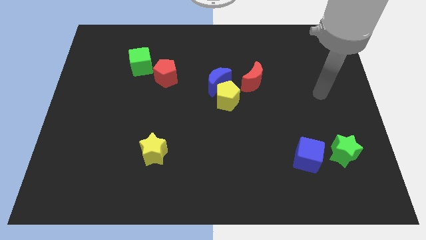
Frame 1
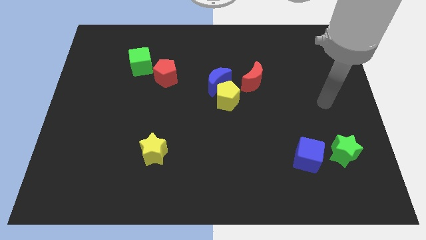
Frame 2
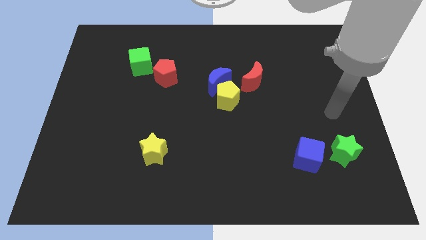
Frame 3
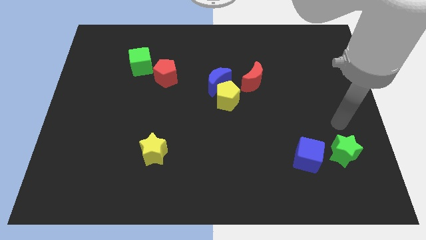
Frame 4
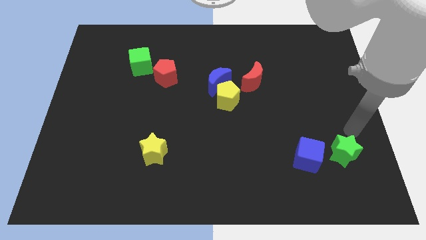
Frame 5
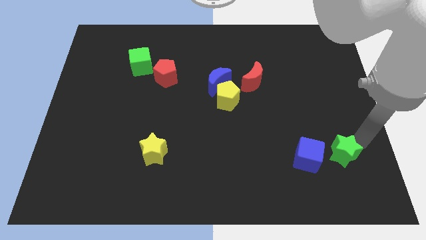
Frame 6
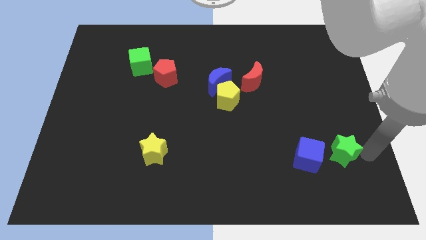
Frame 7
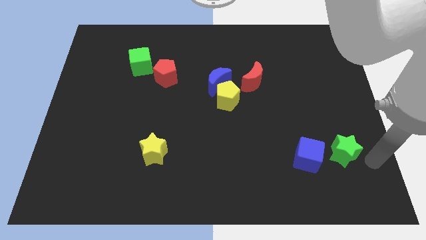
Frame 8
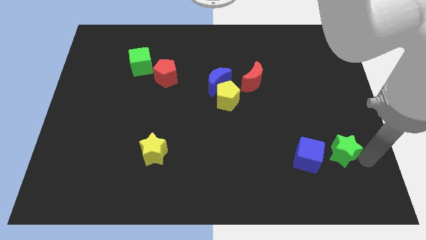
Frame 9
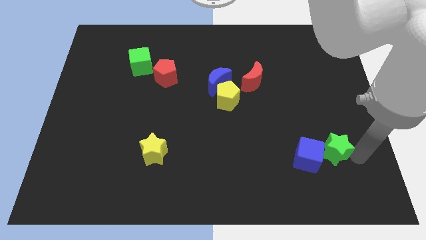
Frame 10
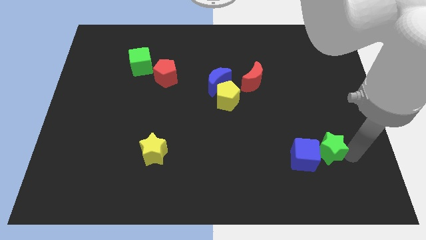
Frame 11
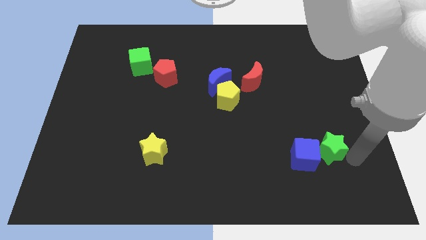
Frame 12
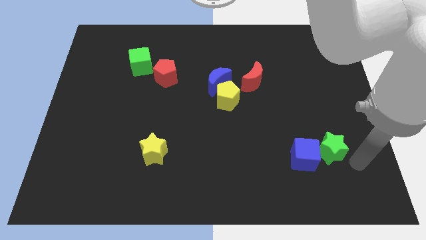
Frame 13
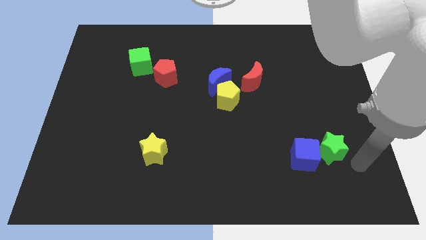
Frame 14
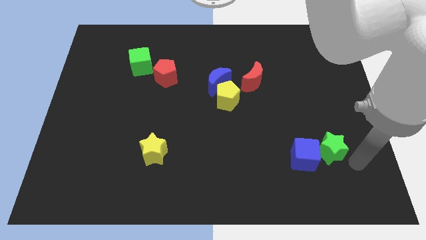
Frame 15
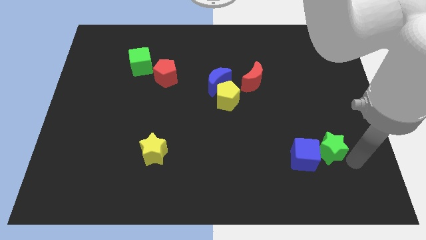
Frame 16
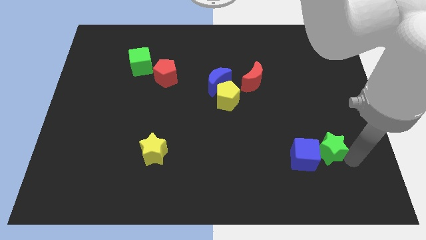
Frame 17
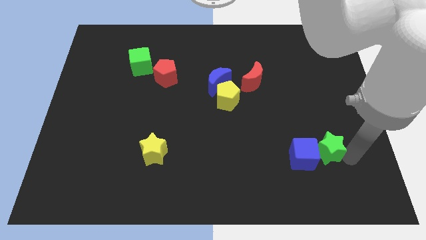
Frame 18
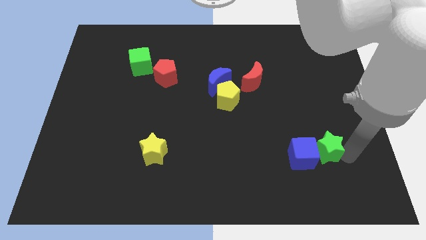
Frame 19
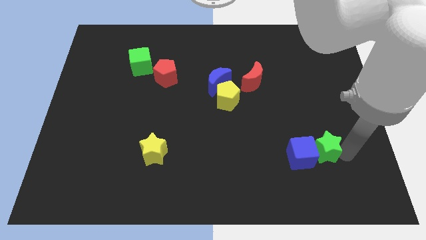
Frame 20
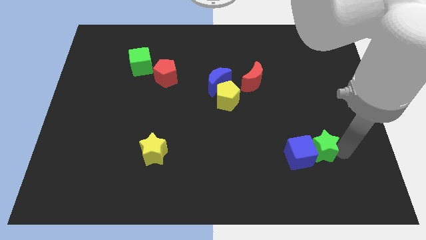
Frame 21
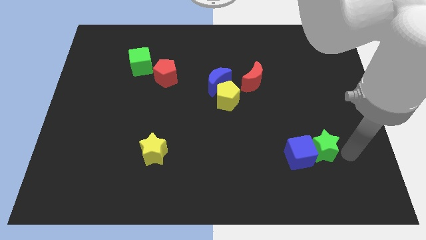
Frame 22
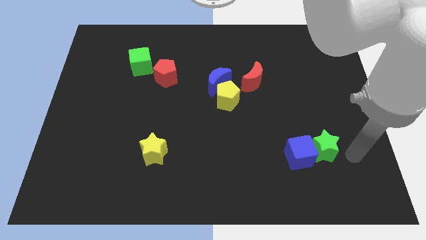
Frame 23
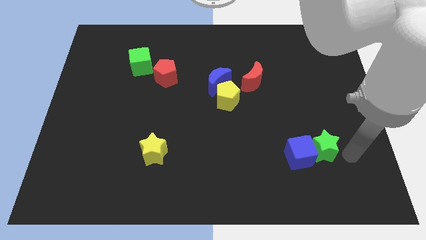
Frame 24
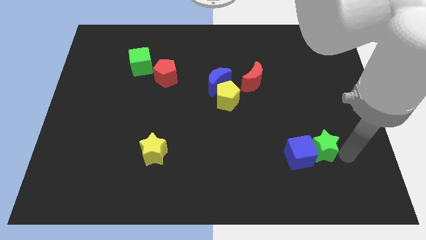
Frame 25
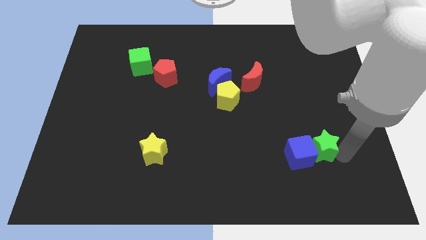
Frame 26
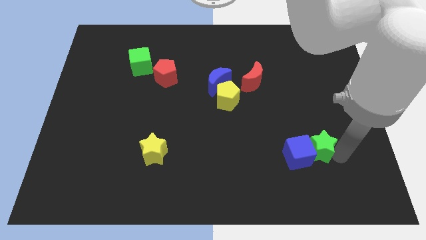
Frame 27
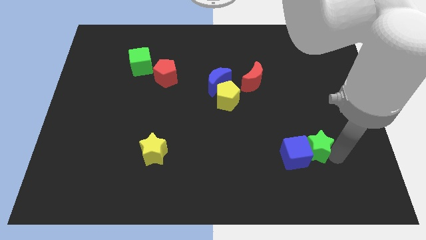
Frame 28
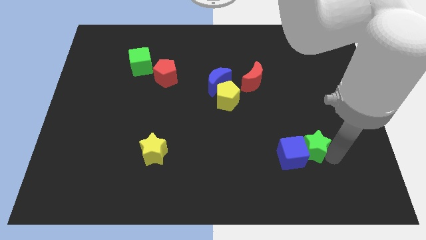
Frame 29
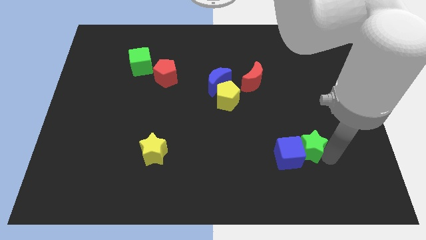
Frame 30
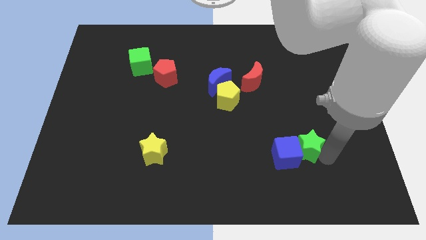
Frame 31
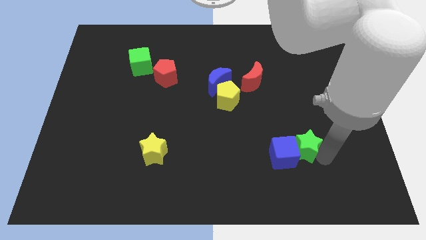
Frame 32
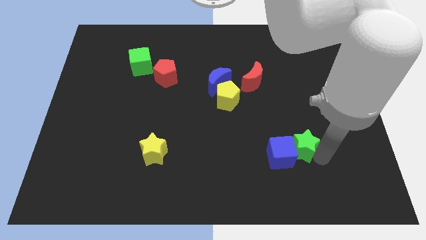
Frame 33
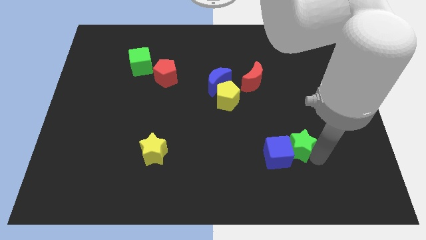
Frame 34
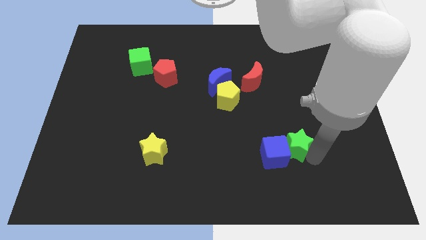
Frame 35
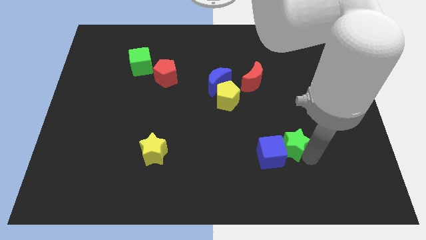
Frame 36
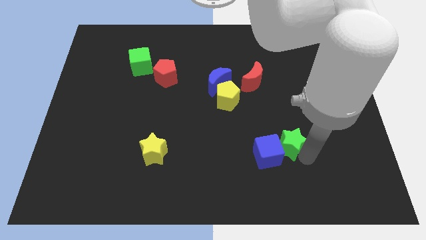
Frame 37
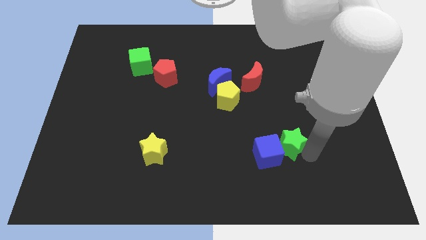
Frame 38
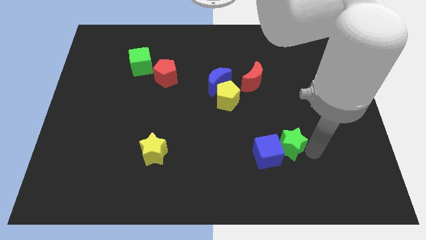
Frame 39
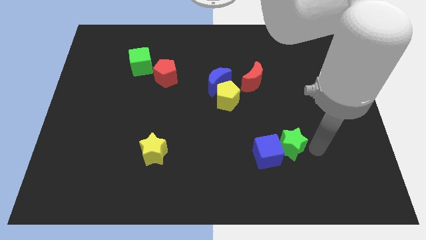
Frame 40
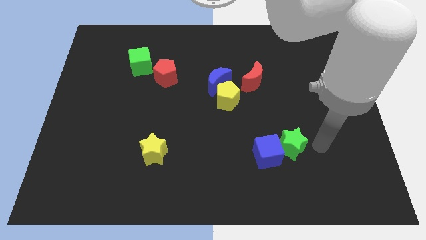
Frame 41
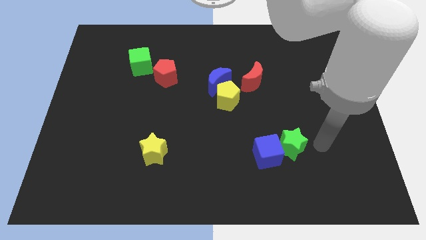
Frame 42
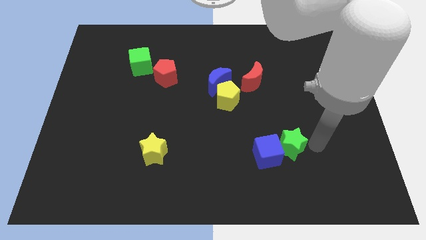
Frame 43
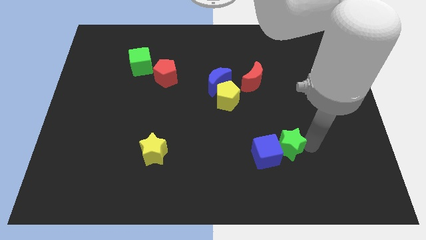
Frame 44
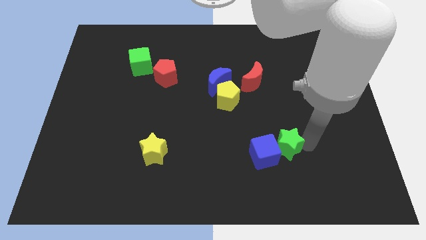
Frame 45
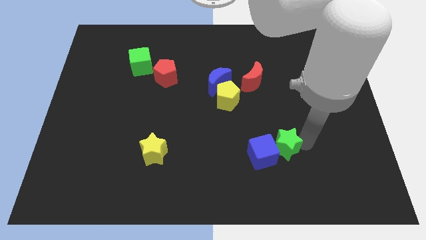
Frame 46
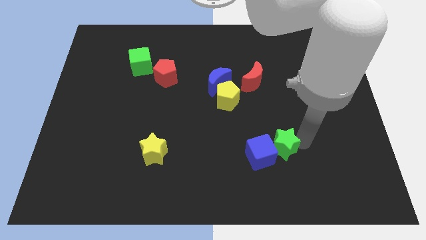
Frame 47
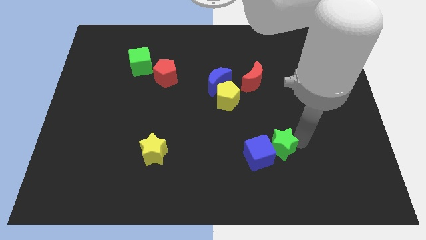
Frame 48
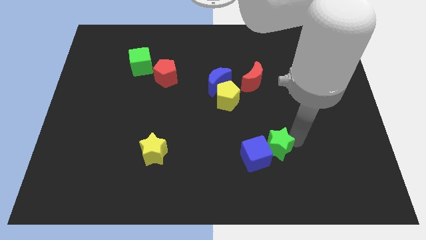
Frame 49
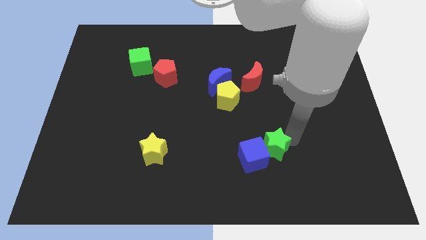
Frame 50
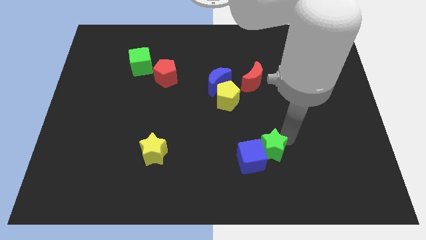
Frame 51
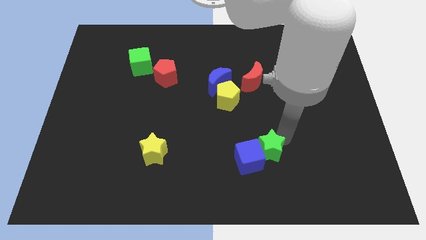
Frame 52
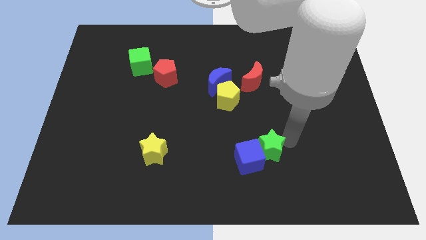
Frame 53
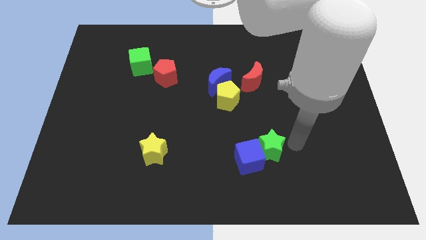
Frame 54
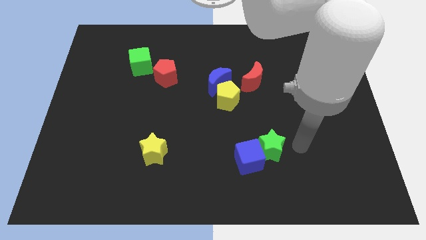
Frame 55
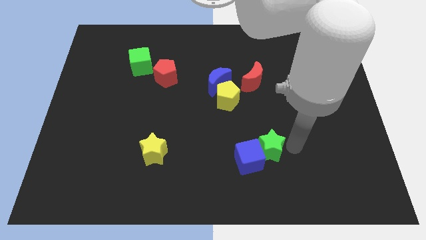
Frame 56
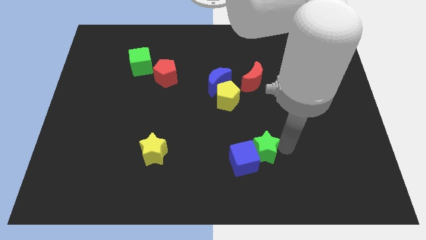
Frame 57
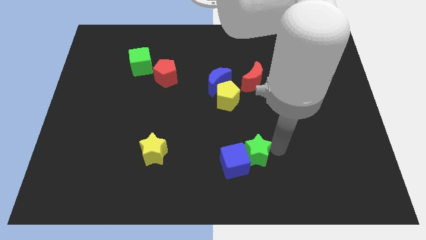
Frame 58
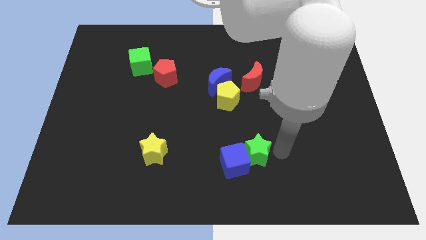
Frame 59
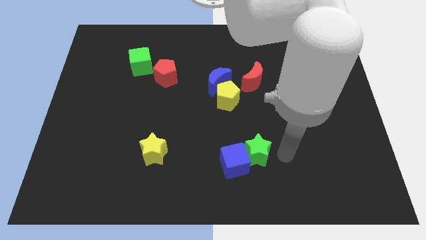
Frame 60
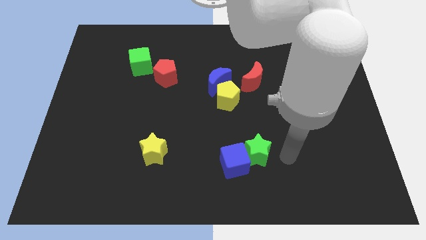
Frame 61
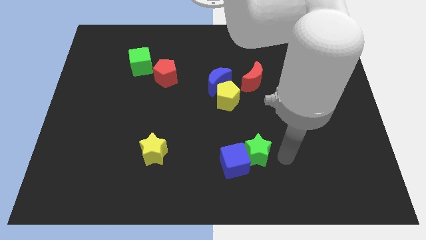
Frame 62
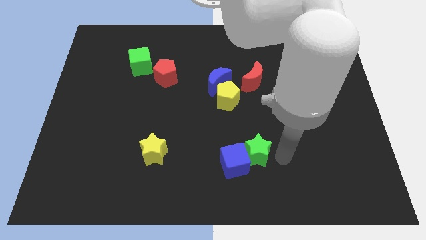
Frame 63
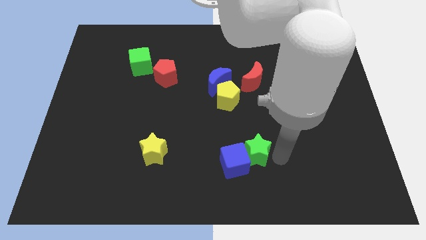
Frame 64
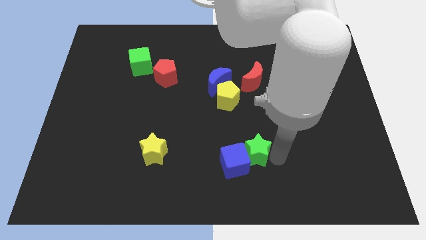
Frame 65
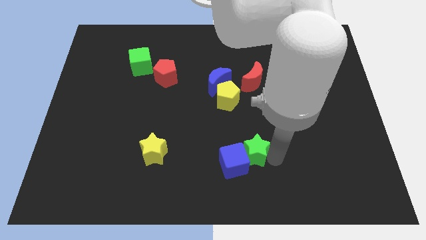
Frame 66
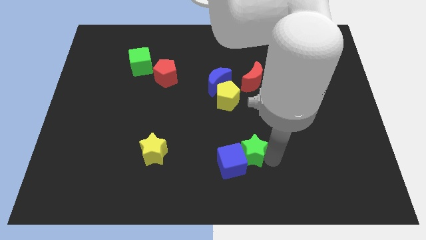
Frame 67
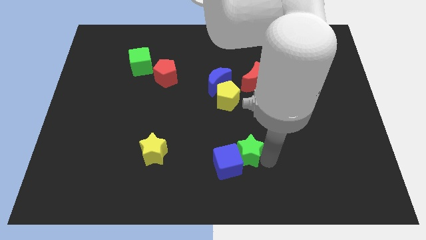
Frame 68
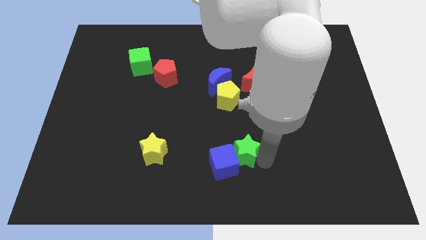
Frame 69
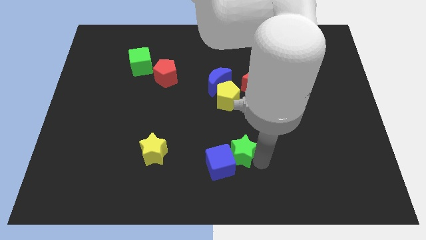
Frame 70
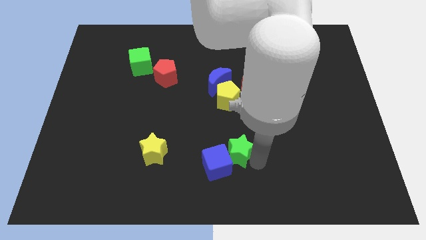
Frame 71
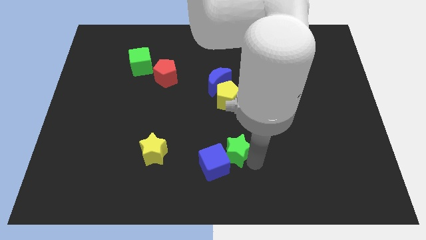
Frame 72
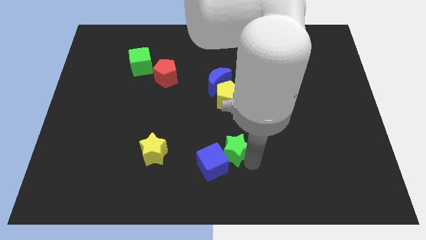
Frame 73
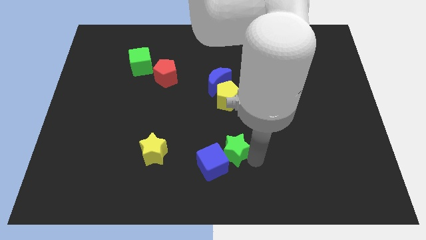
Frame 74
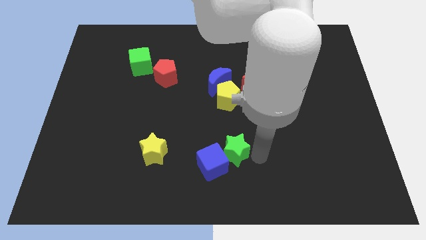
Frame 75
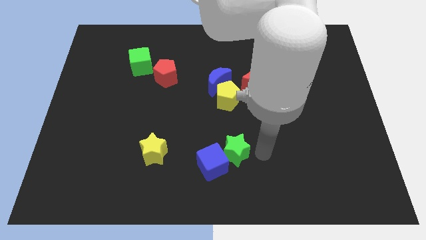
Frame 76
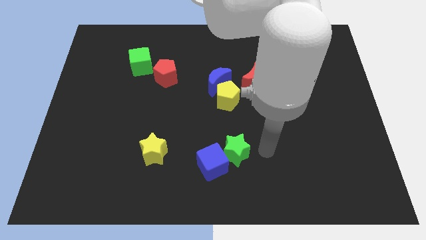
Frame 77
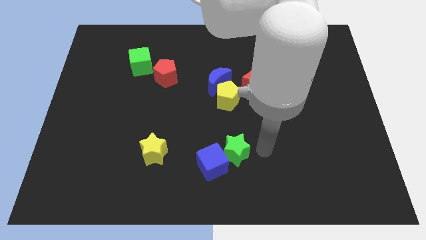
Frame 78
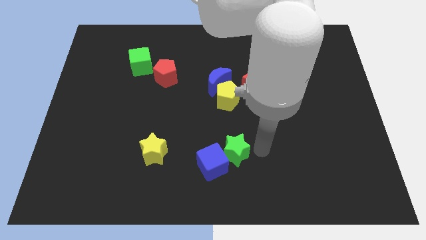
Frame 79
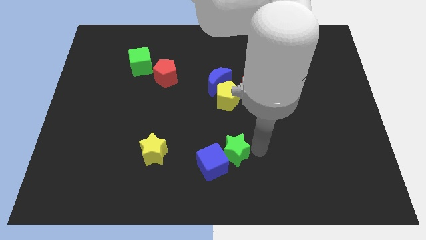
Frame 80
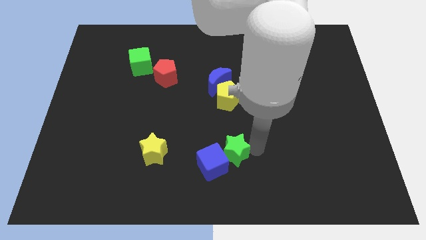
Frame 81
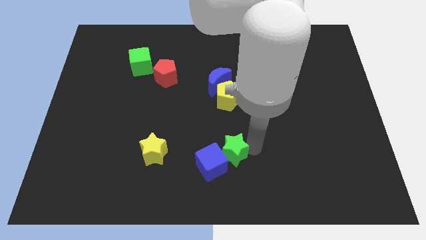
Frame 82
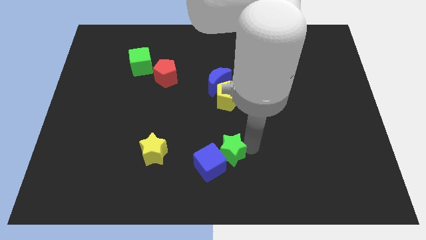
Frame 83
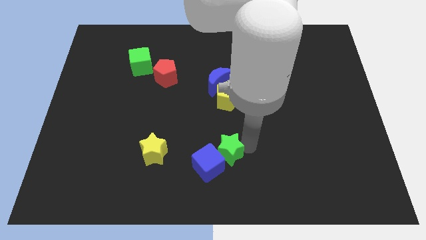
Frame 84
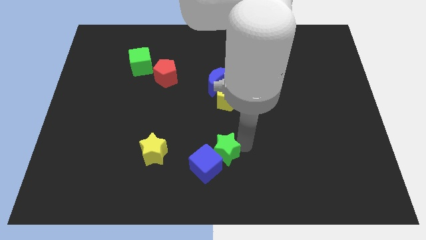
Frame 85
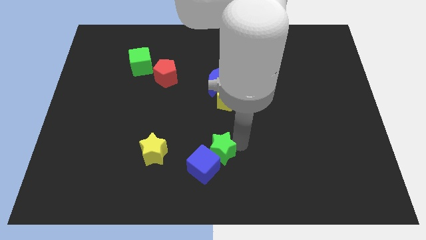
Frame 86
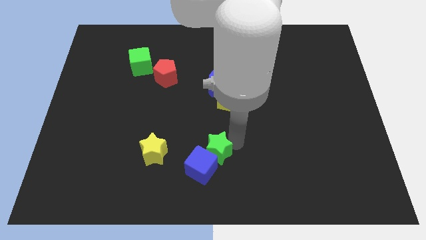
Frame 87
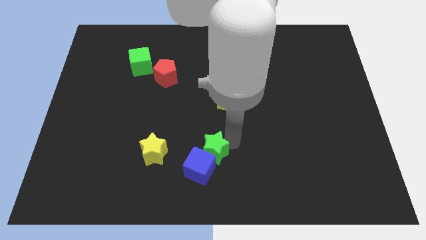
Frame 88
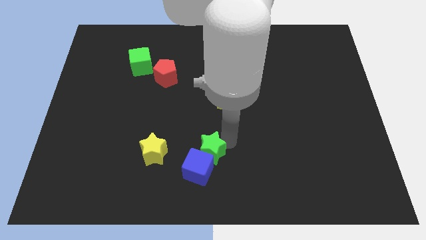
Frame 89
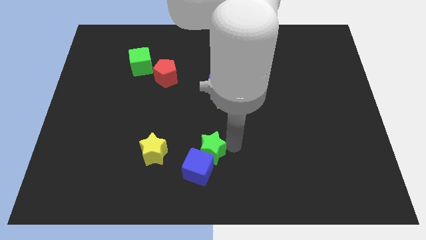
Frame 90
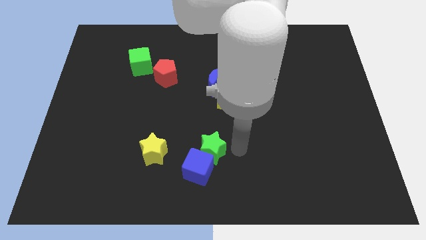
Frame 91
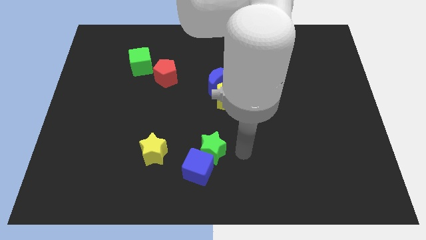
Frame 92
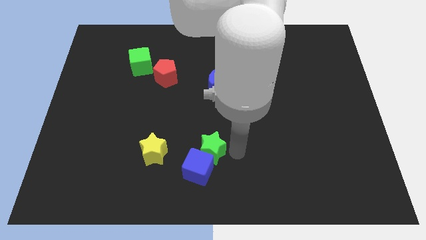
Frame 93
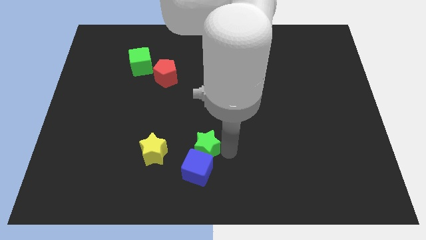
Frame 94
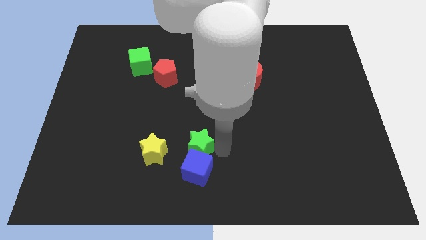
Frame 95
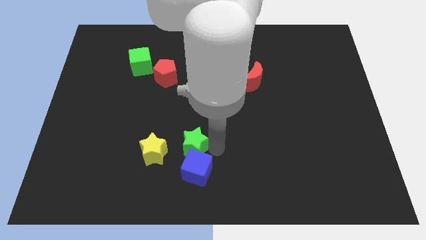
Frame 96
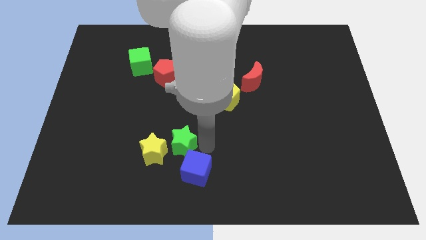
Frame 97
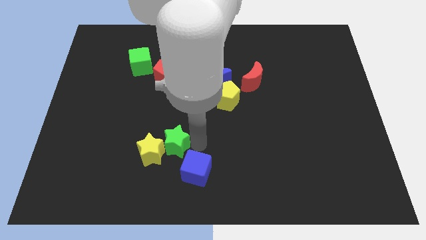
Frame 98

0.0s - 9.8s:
move the green star to the yellow star
